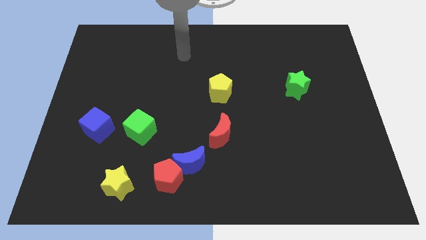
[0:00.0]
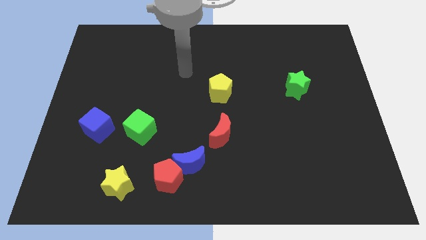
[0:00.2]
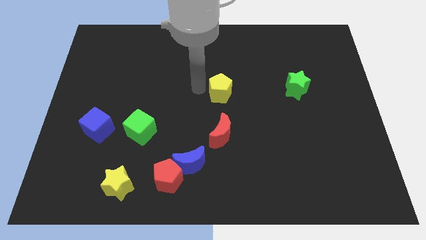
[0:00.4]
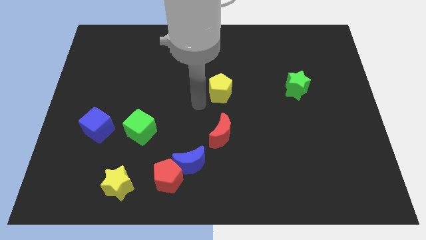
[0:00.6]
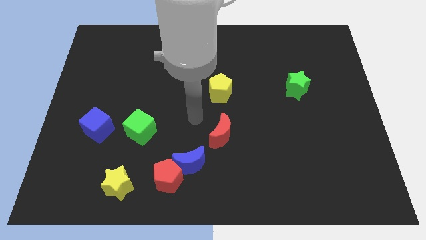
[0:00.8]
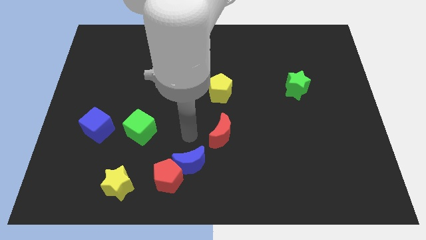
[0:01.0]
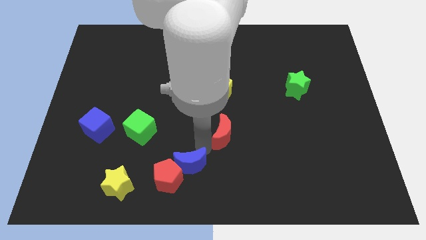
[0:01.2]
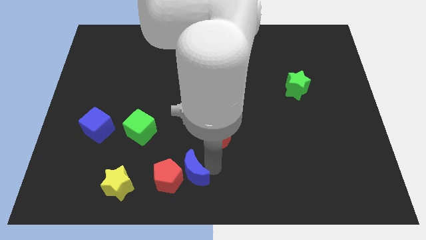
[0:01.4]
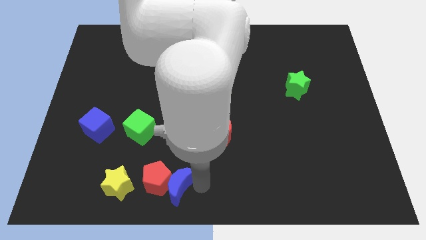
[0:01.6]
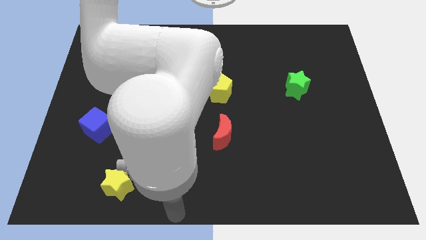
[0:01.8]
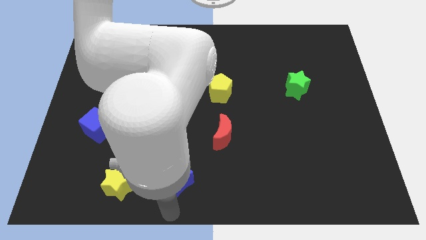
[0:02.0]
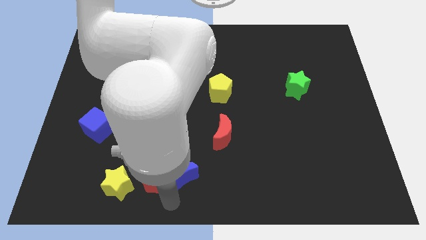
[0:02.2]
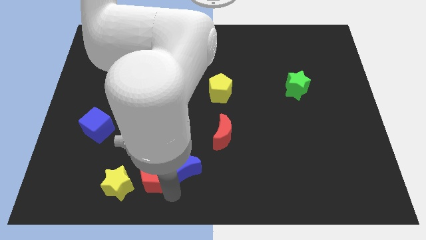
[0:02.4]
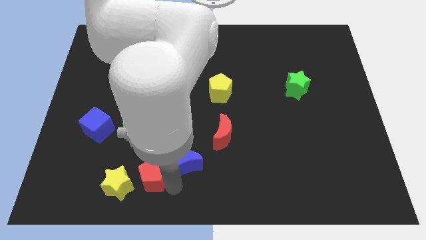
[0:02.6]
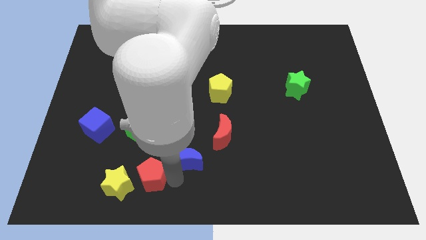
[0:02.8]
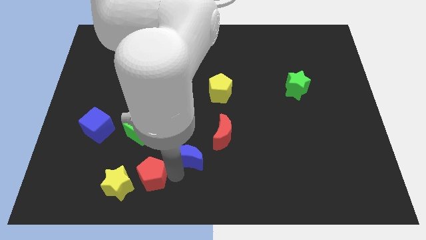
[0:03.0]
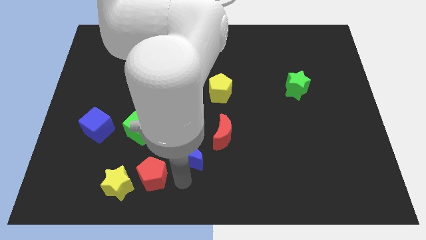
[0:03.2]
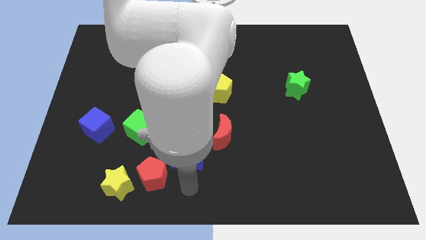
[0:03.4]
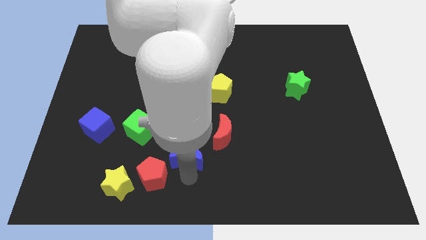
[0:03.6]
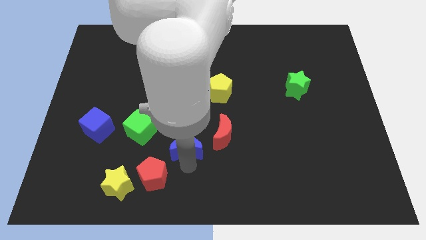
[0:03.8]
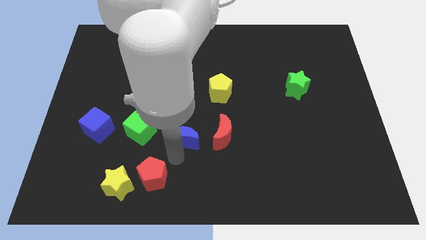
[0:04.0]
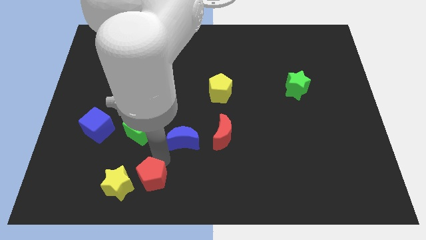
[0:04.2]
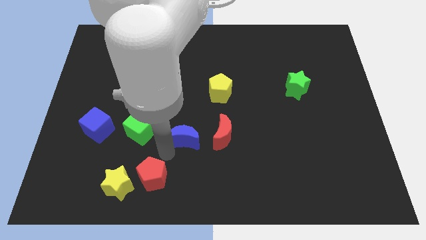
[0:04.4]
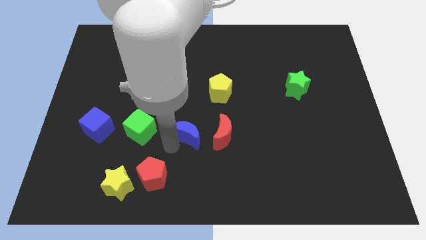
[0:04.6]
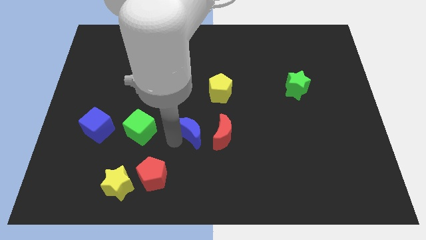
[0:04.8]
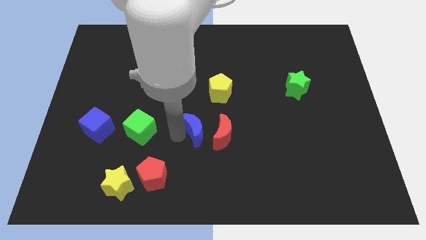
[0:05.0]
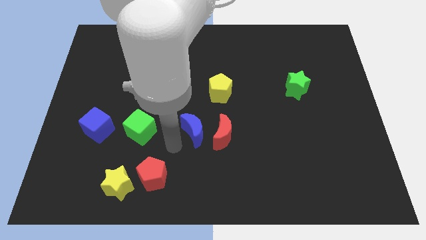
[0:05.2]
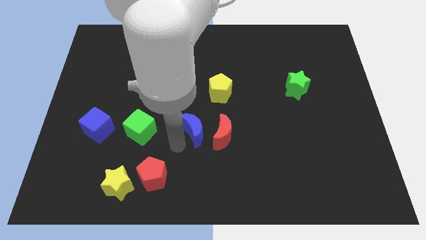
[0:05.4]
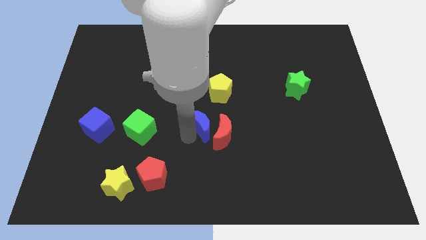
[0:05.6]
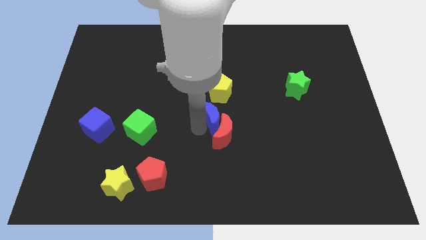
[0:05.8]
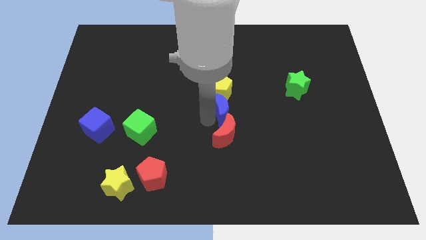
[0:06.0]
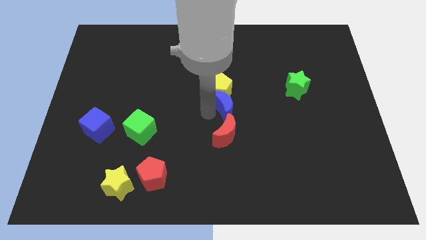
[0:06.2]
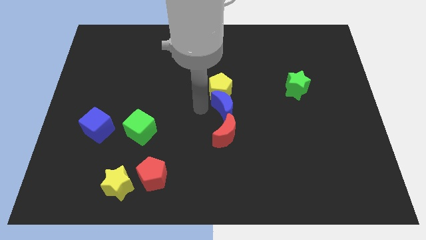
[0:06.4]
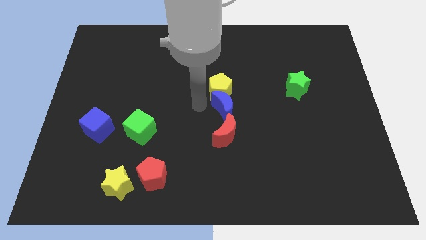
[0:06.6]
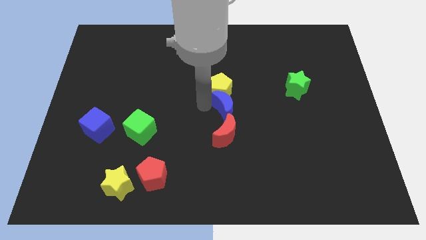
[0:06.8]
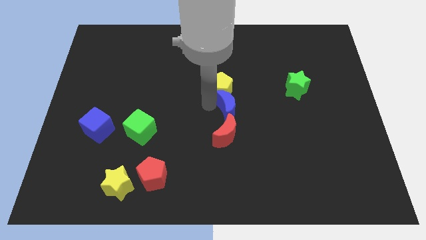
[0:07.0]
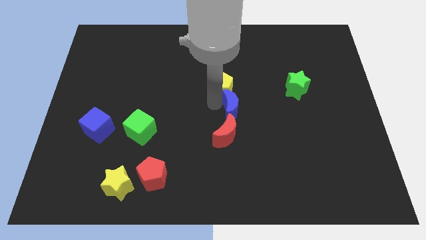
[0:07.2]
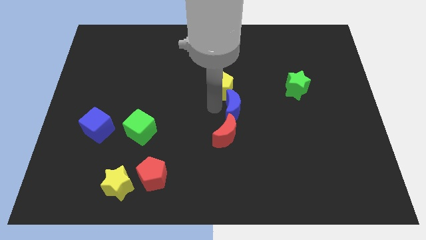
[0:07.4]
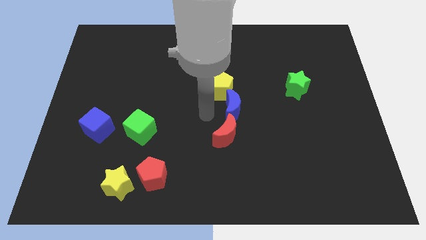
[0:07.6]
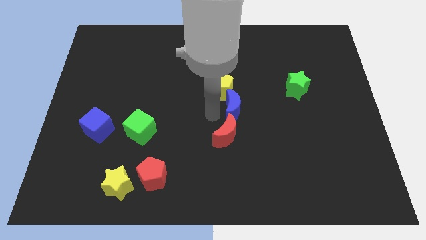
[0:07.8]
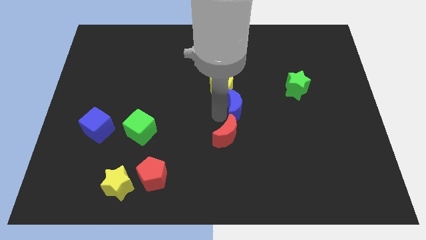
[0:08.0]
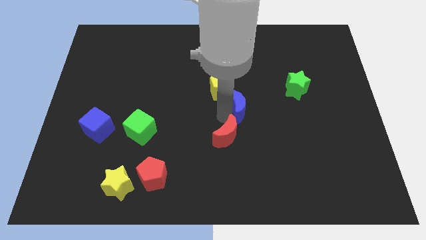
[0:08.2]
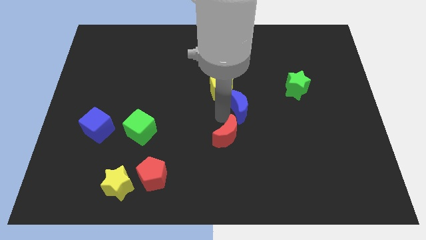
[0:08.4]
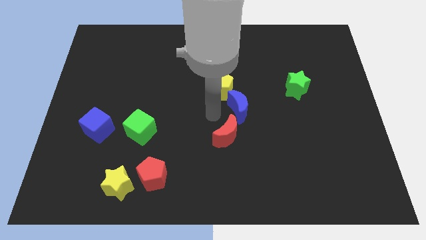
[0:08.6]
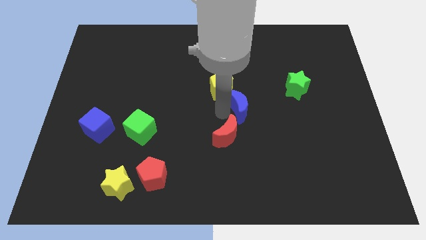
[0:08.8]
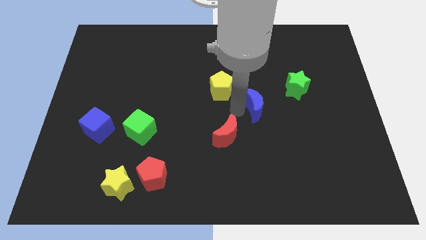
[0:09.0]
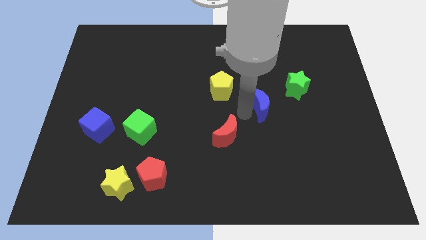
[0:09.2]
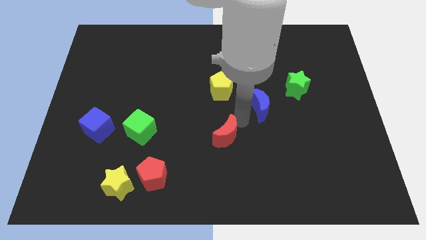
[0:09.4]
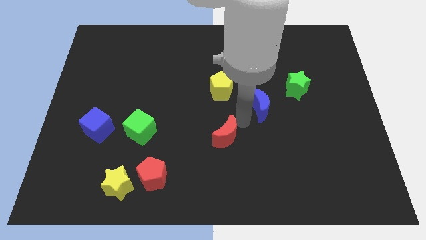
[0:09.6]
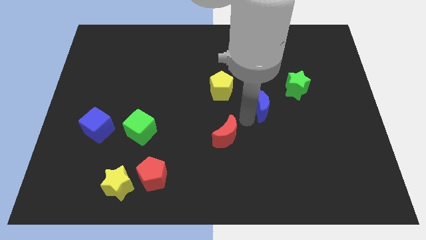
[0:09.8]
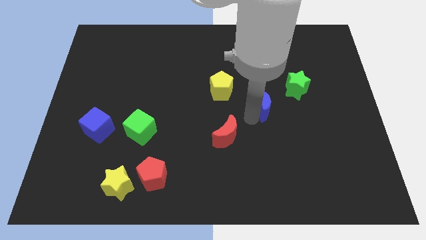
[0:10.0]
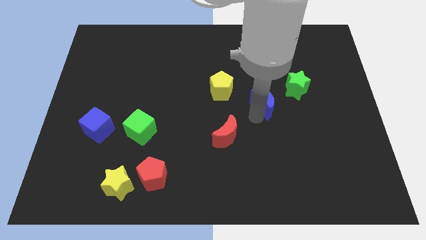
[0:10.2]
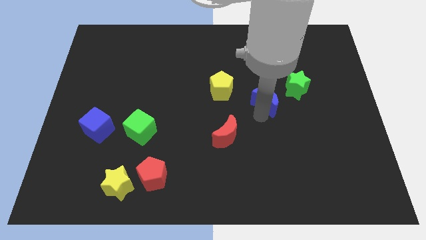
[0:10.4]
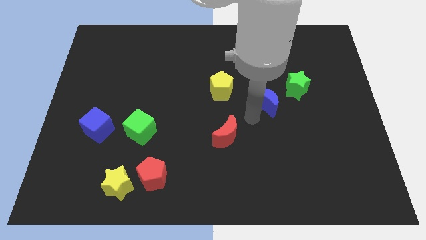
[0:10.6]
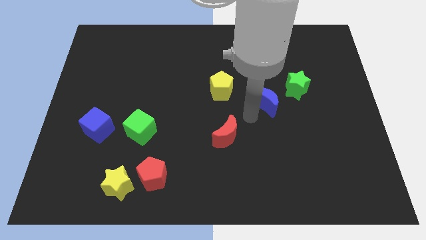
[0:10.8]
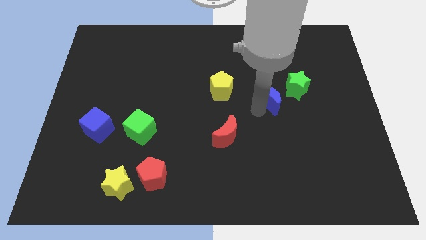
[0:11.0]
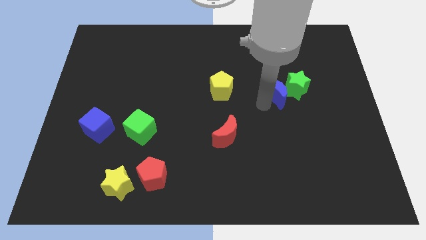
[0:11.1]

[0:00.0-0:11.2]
move the blue moon close to the green star

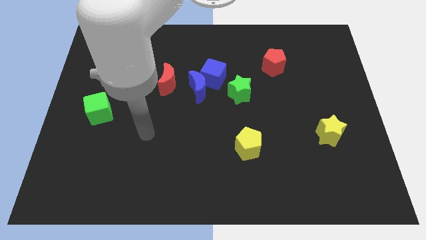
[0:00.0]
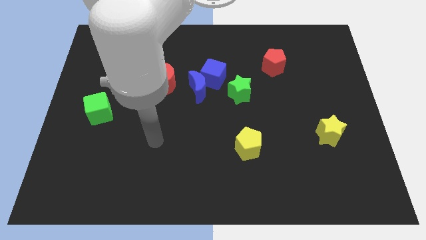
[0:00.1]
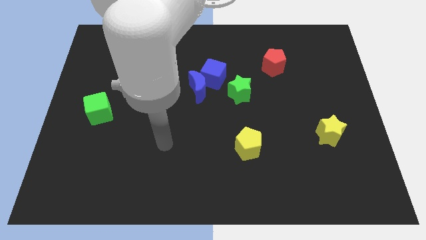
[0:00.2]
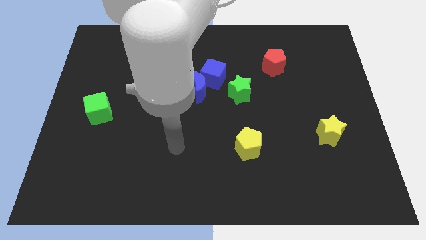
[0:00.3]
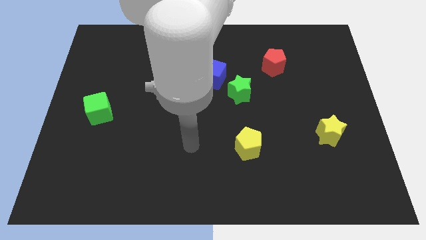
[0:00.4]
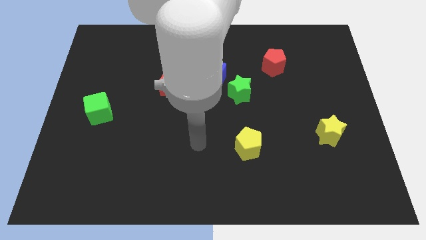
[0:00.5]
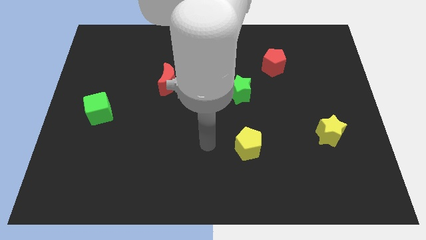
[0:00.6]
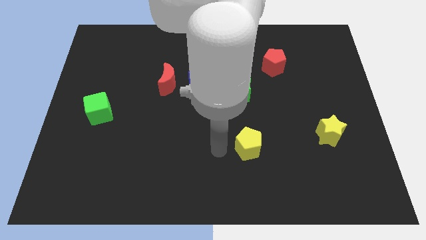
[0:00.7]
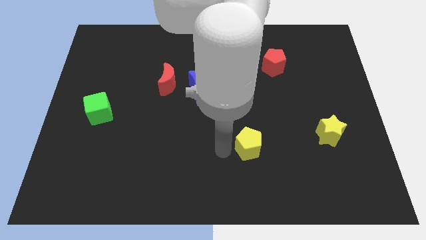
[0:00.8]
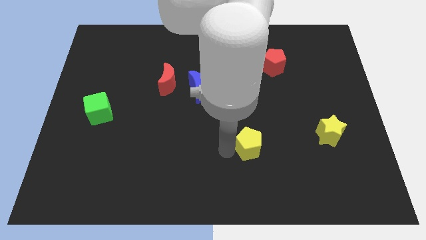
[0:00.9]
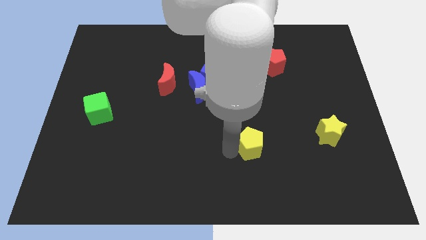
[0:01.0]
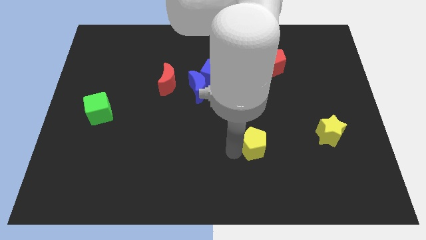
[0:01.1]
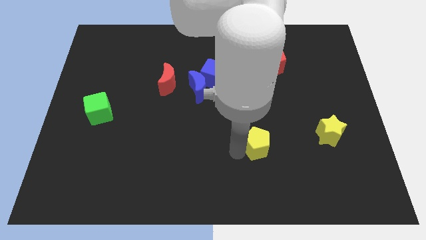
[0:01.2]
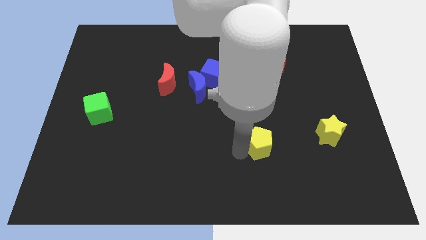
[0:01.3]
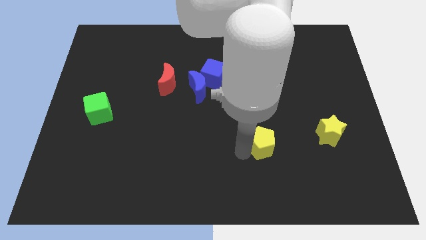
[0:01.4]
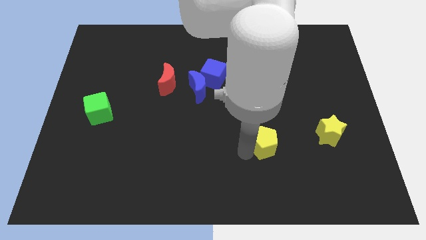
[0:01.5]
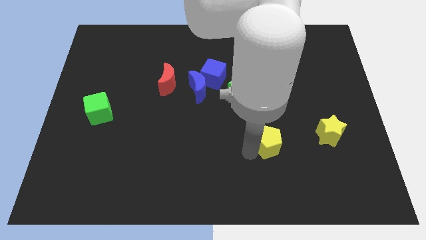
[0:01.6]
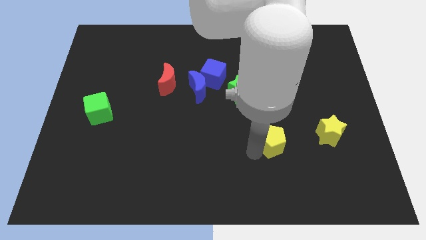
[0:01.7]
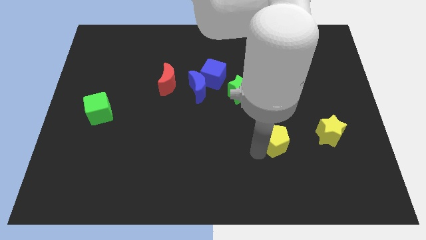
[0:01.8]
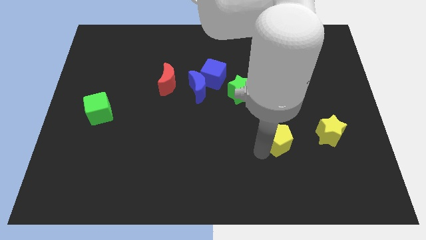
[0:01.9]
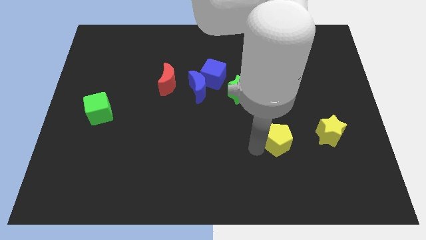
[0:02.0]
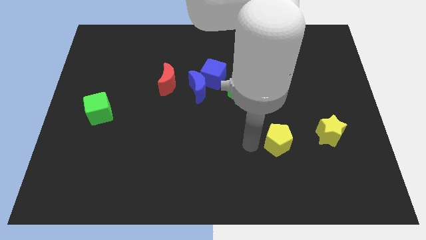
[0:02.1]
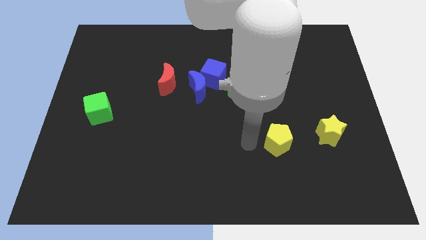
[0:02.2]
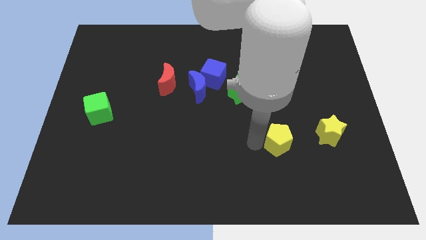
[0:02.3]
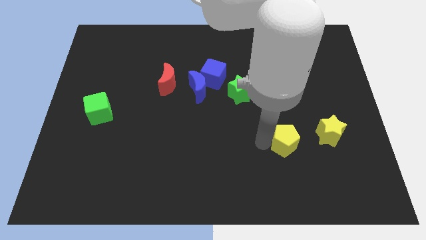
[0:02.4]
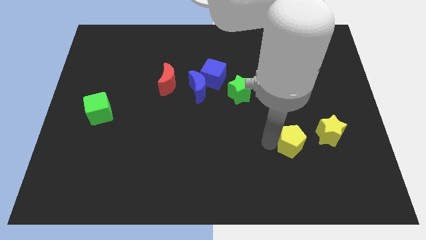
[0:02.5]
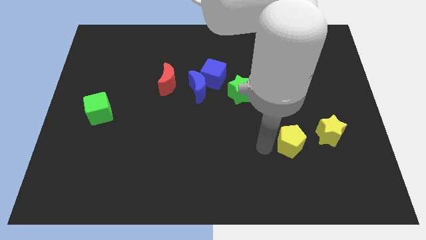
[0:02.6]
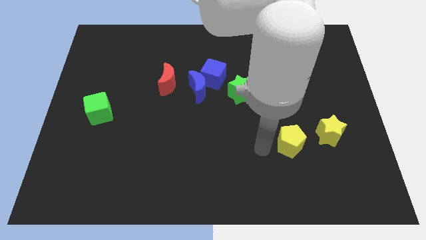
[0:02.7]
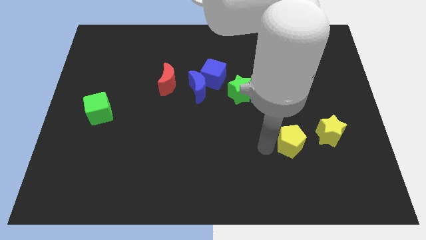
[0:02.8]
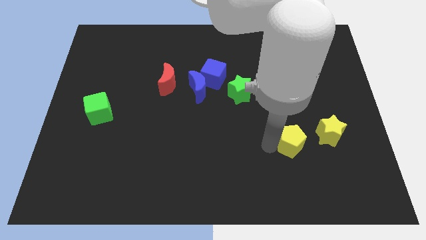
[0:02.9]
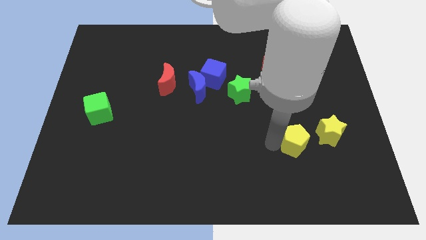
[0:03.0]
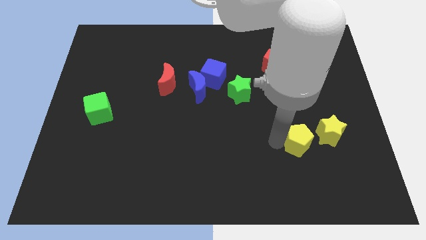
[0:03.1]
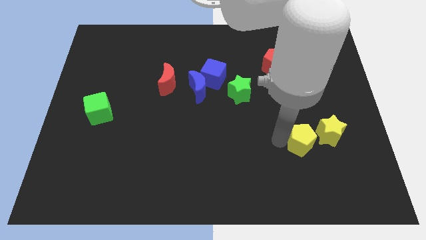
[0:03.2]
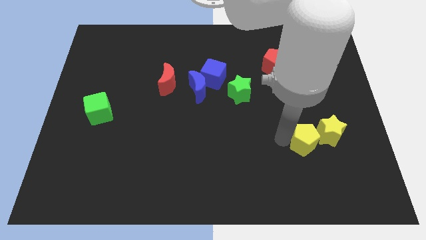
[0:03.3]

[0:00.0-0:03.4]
move the yellow pentagon to the yellow star
